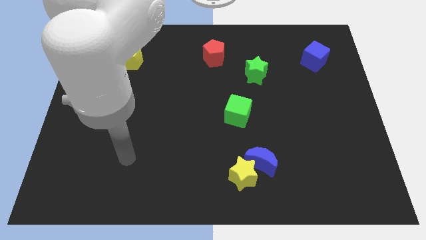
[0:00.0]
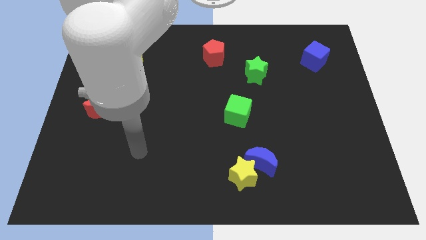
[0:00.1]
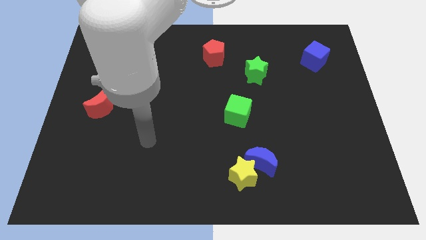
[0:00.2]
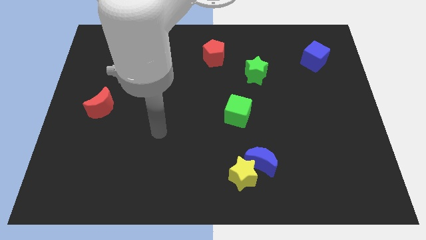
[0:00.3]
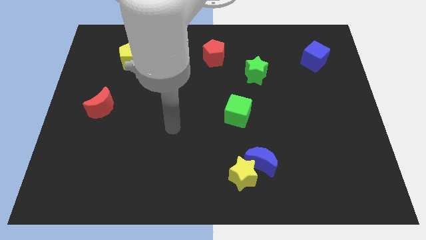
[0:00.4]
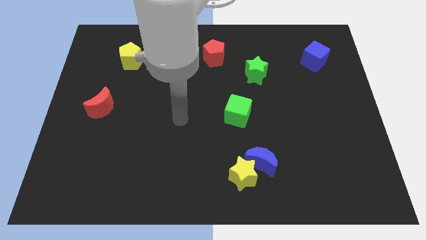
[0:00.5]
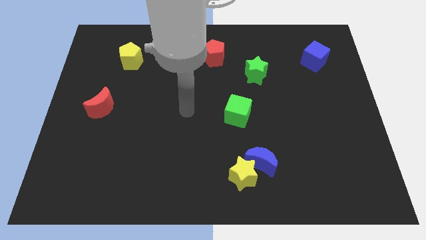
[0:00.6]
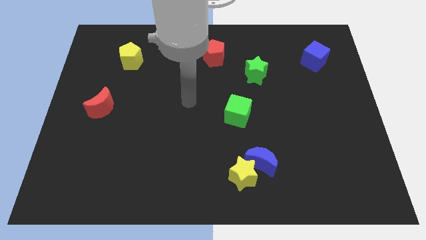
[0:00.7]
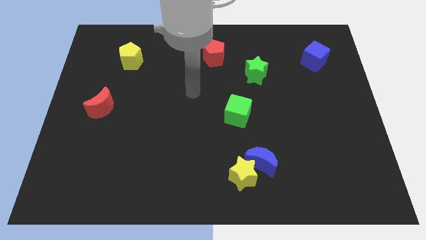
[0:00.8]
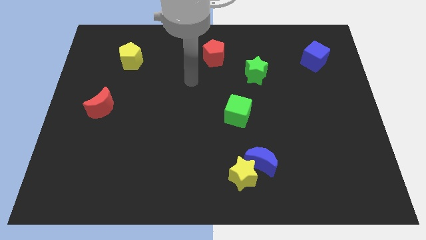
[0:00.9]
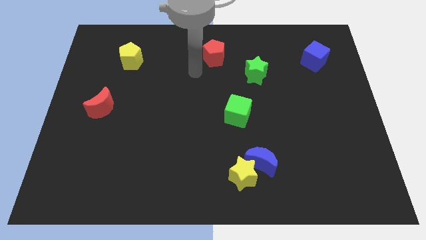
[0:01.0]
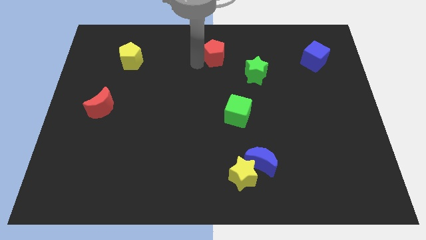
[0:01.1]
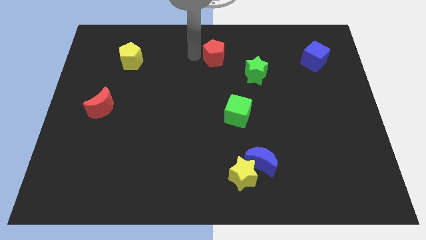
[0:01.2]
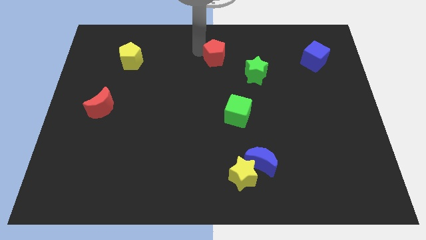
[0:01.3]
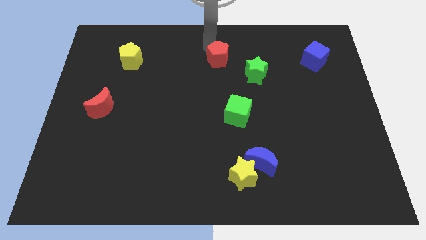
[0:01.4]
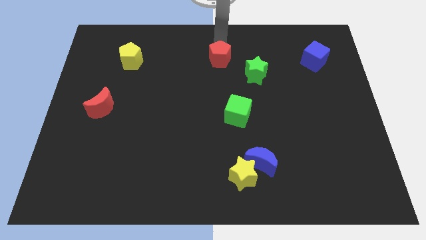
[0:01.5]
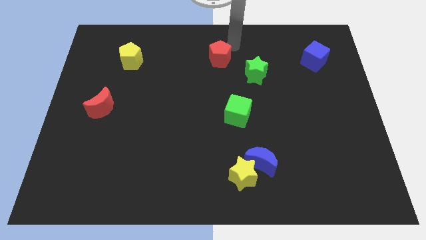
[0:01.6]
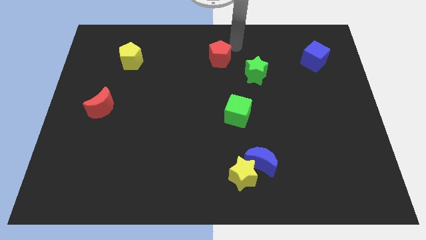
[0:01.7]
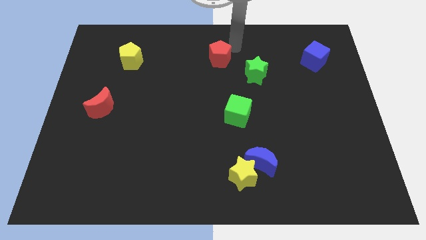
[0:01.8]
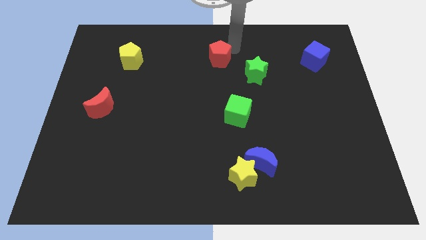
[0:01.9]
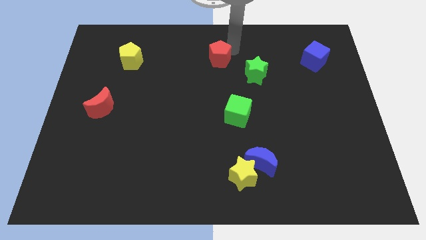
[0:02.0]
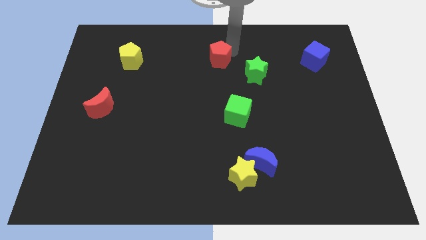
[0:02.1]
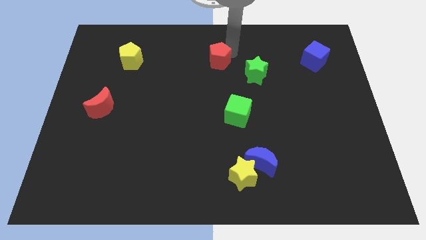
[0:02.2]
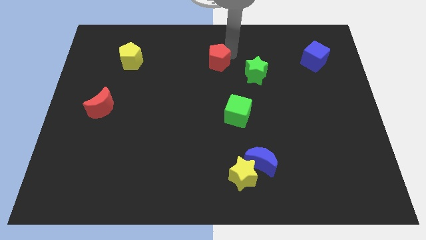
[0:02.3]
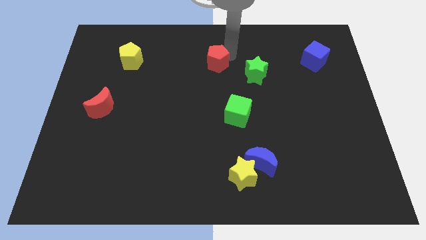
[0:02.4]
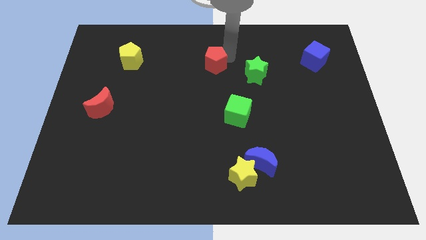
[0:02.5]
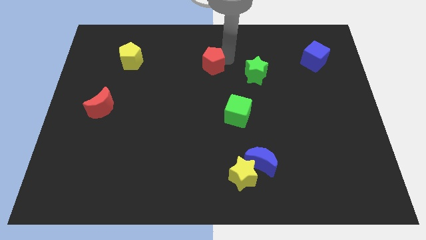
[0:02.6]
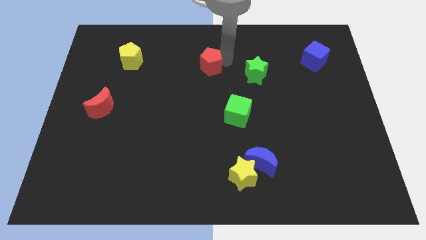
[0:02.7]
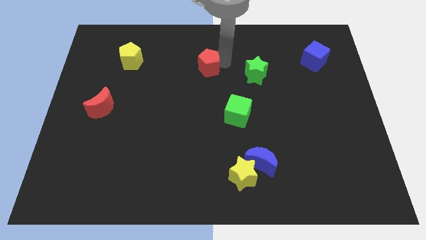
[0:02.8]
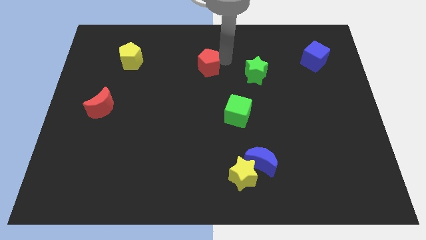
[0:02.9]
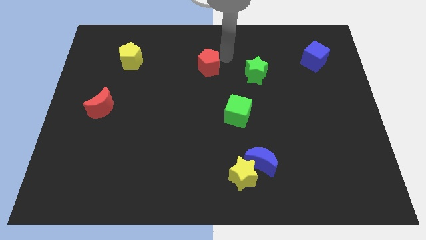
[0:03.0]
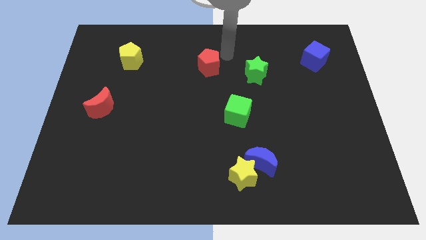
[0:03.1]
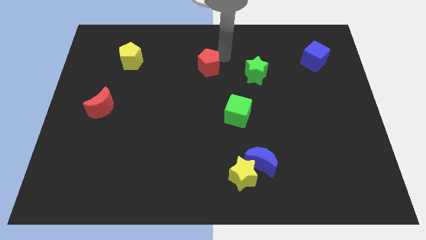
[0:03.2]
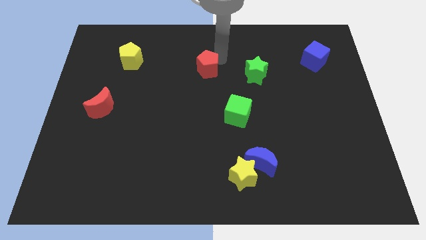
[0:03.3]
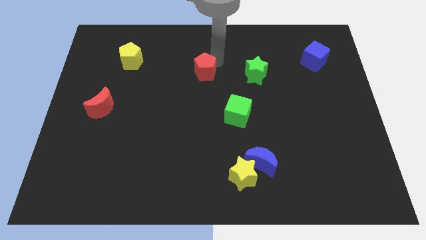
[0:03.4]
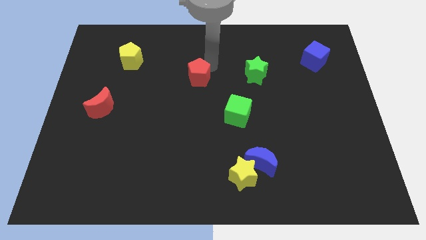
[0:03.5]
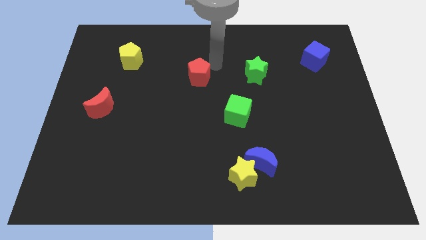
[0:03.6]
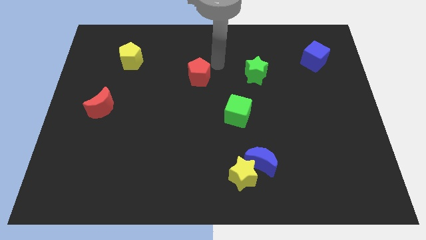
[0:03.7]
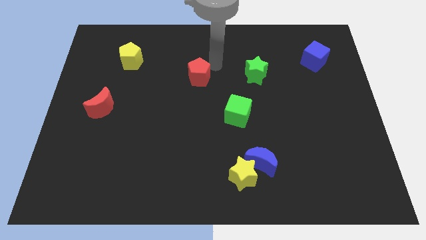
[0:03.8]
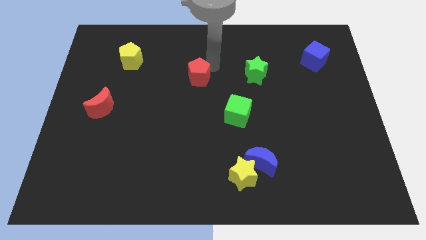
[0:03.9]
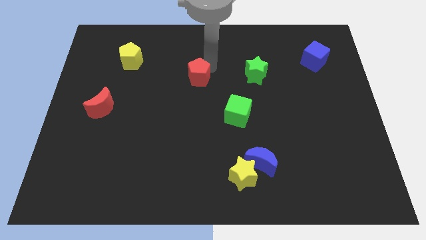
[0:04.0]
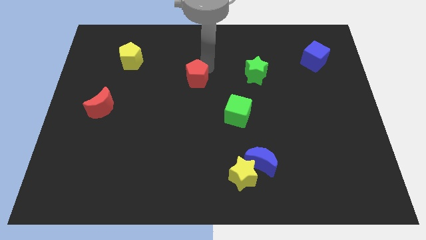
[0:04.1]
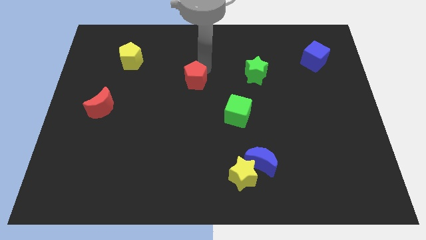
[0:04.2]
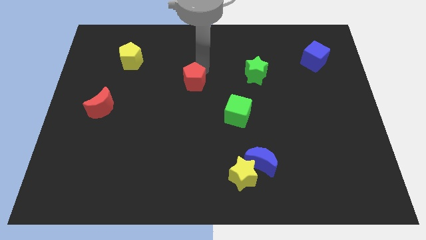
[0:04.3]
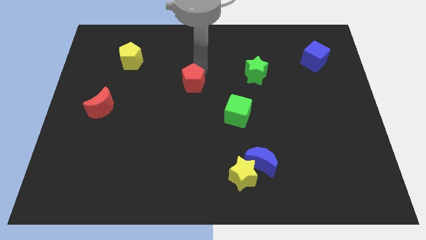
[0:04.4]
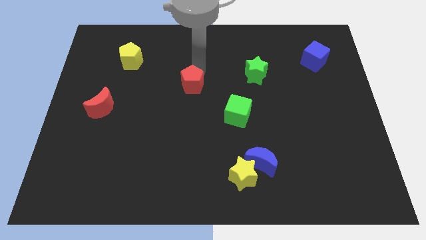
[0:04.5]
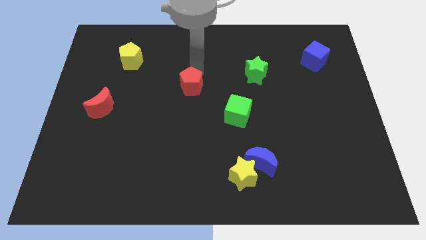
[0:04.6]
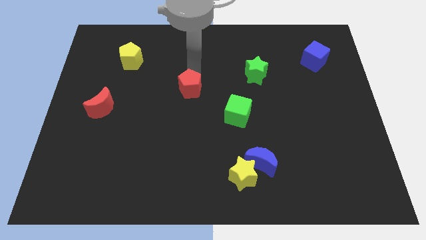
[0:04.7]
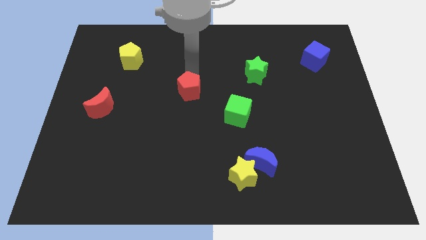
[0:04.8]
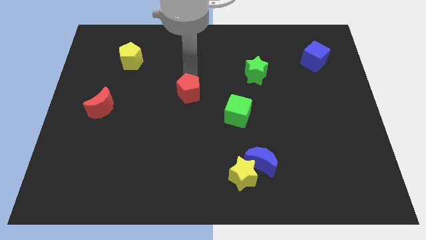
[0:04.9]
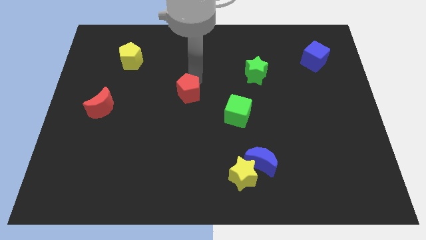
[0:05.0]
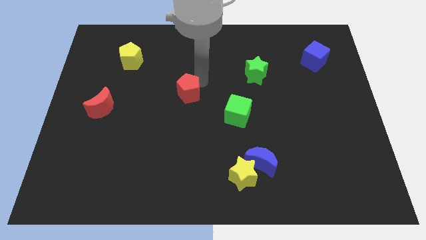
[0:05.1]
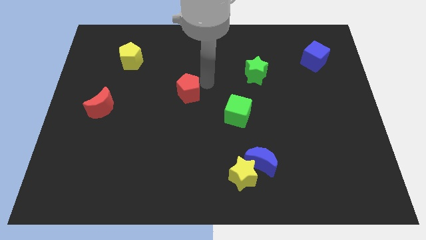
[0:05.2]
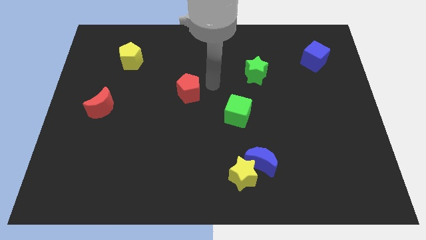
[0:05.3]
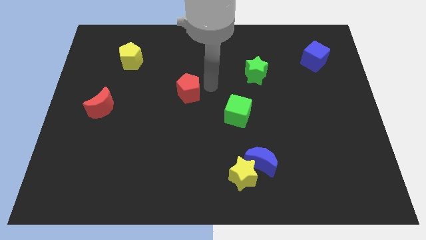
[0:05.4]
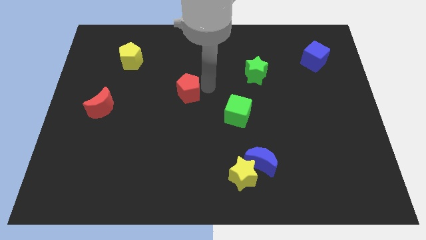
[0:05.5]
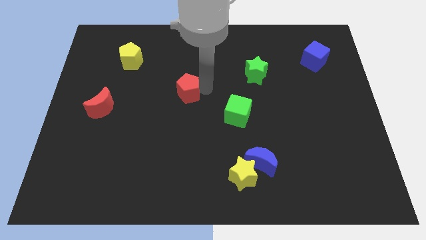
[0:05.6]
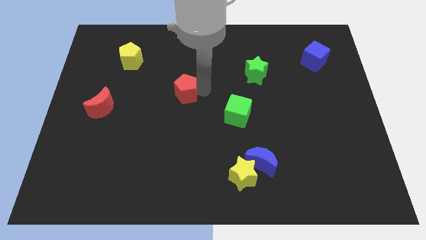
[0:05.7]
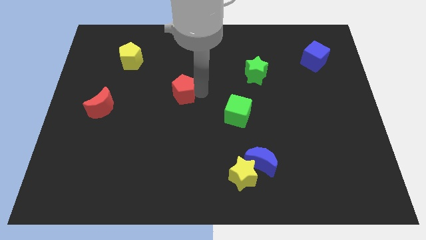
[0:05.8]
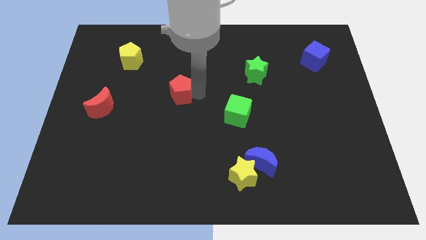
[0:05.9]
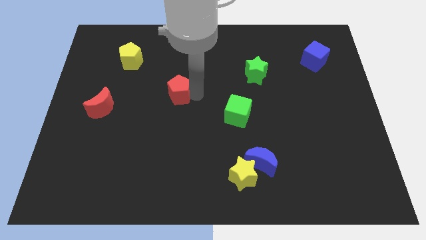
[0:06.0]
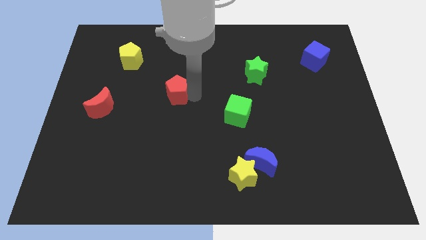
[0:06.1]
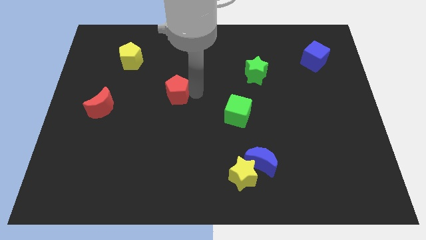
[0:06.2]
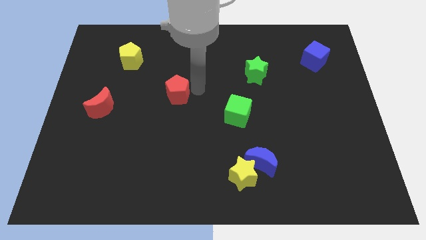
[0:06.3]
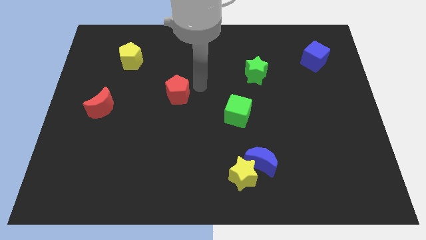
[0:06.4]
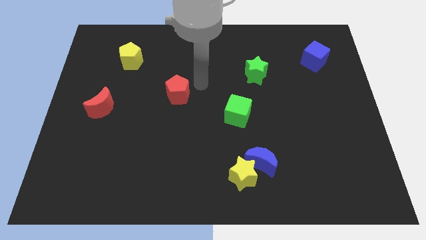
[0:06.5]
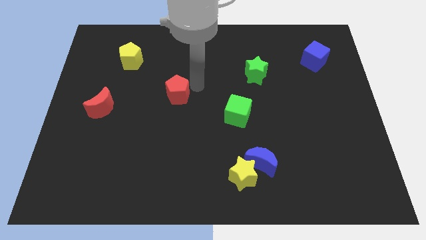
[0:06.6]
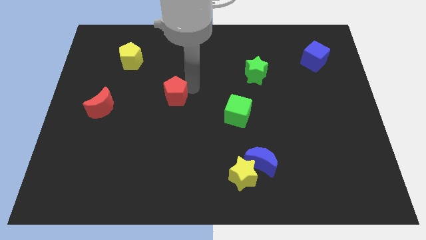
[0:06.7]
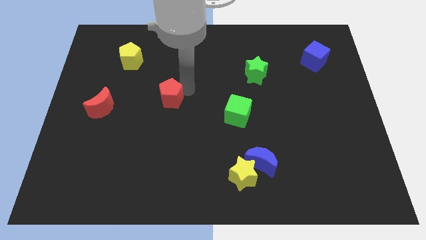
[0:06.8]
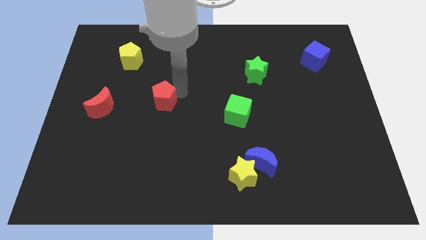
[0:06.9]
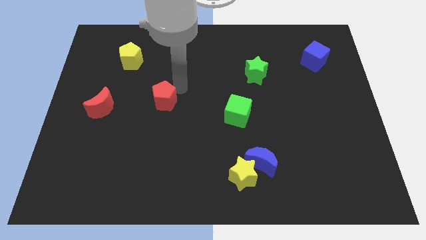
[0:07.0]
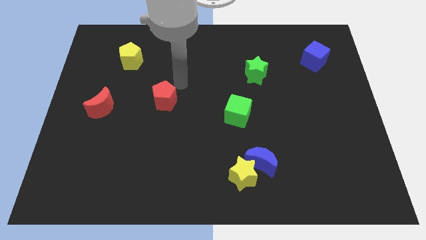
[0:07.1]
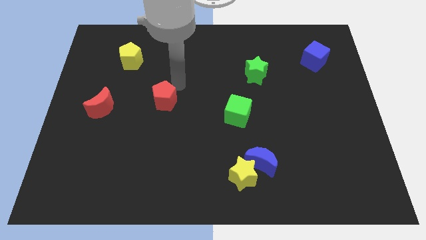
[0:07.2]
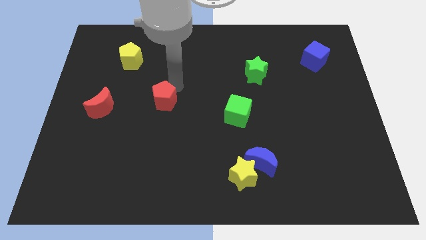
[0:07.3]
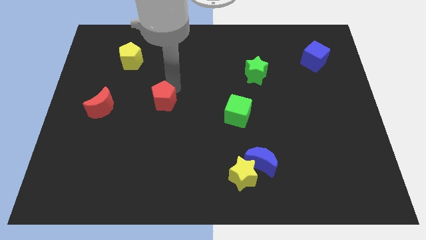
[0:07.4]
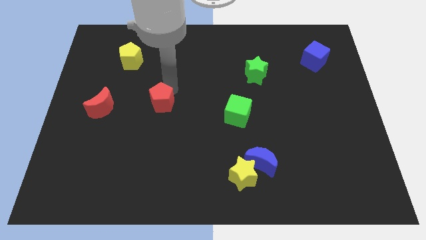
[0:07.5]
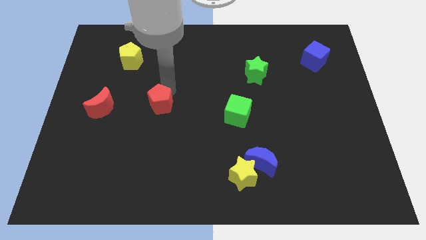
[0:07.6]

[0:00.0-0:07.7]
slide the red pentagon downwards and to the left
